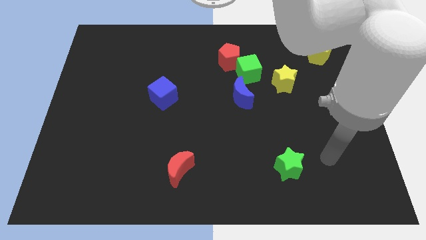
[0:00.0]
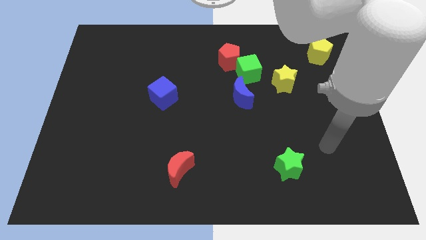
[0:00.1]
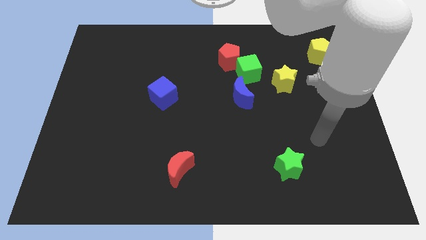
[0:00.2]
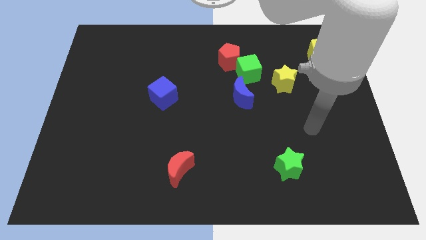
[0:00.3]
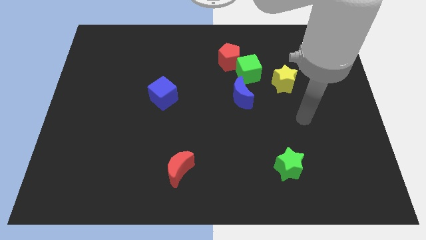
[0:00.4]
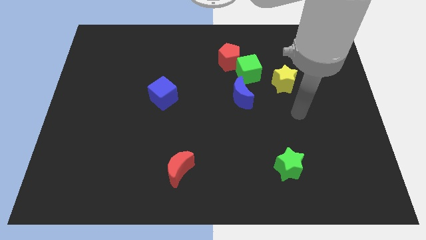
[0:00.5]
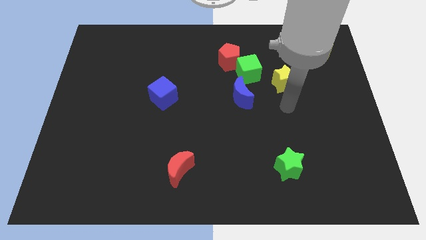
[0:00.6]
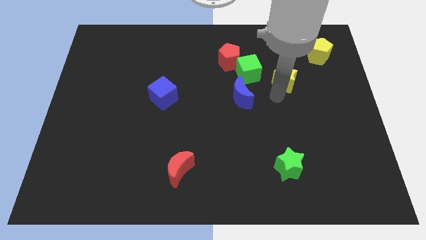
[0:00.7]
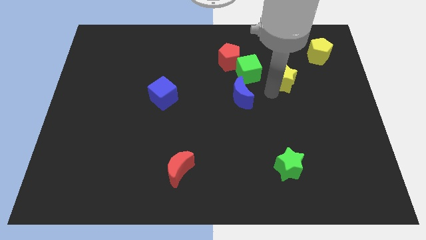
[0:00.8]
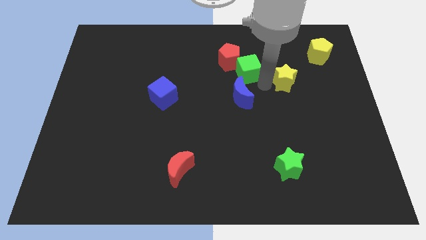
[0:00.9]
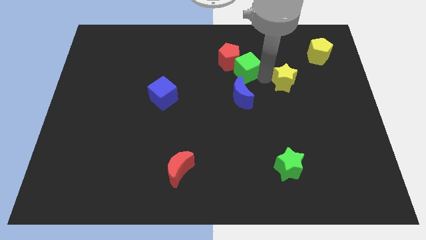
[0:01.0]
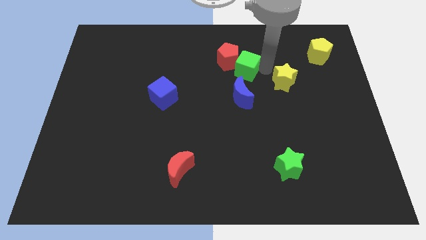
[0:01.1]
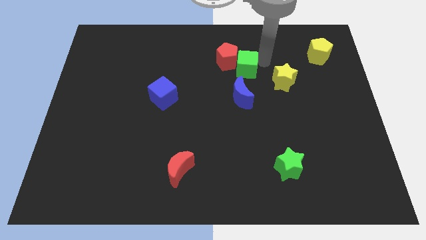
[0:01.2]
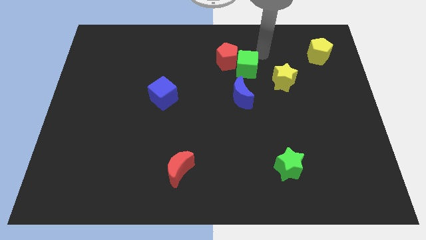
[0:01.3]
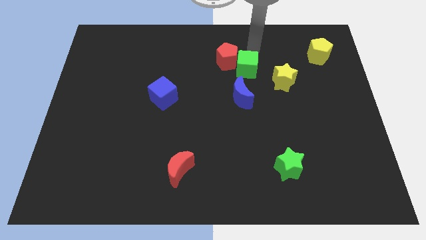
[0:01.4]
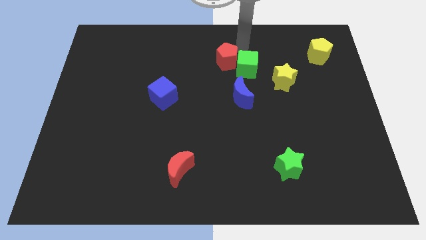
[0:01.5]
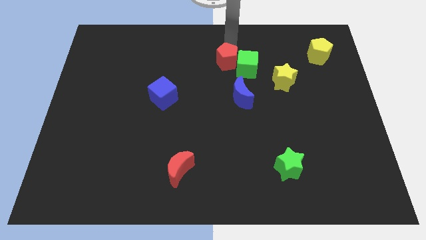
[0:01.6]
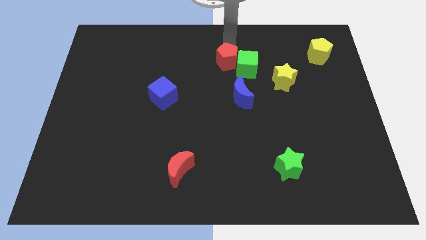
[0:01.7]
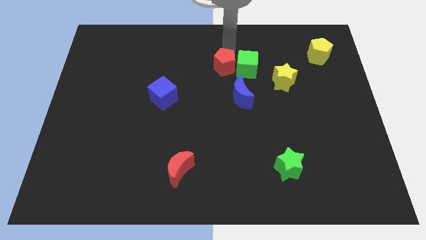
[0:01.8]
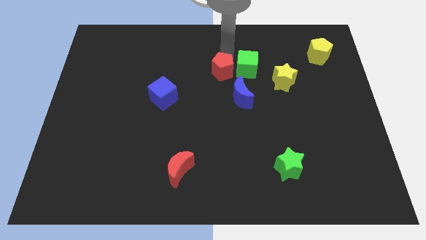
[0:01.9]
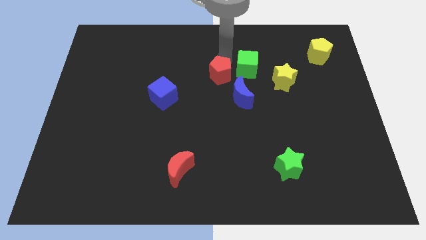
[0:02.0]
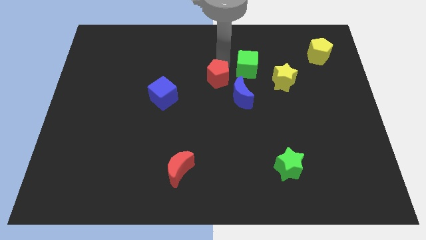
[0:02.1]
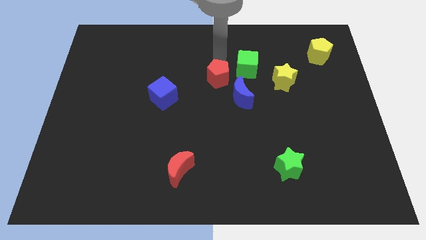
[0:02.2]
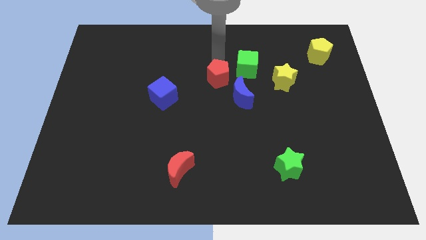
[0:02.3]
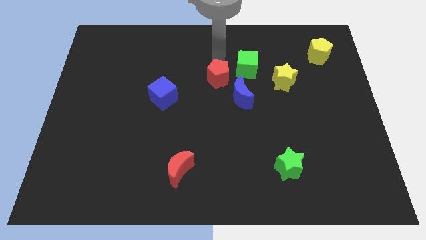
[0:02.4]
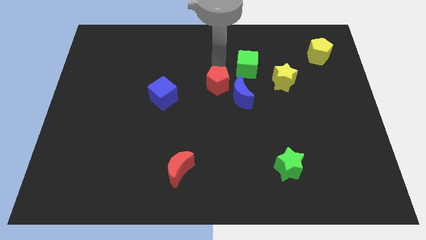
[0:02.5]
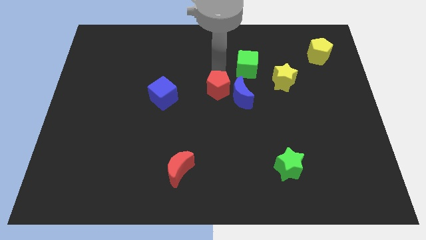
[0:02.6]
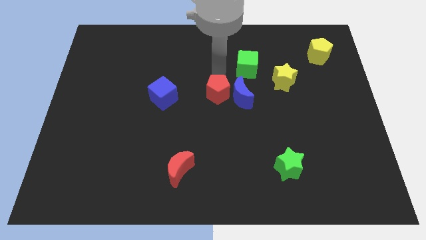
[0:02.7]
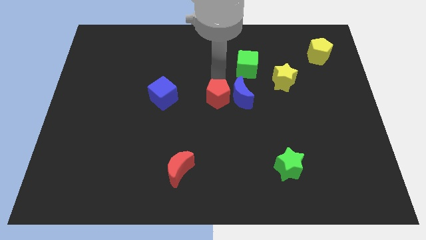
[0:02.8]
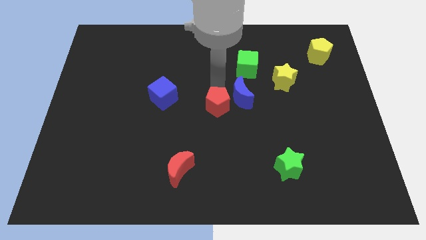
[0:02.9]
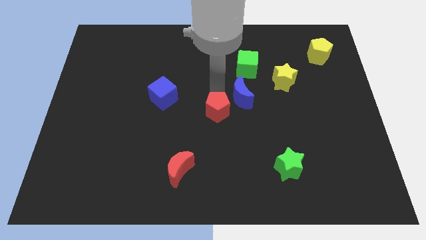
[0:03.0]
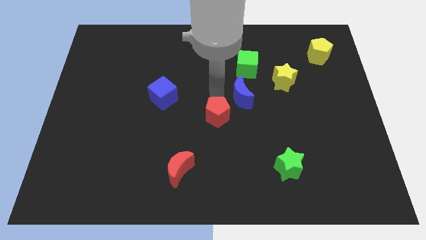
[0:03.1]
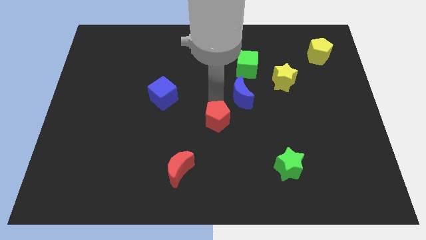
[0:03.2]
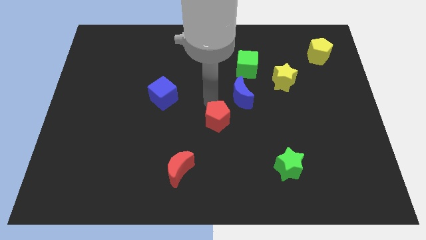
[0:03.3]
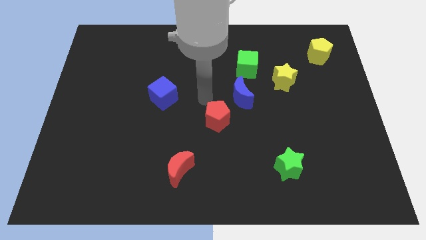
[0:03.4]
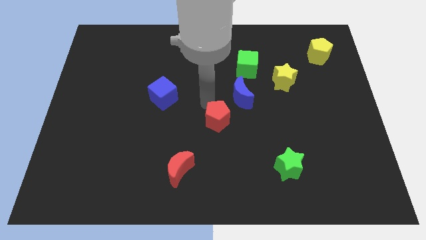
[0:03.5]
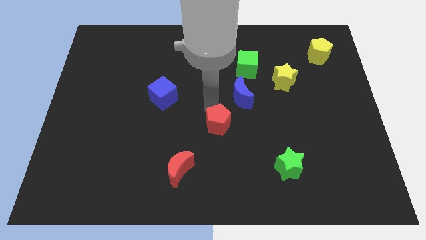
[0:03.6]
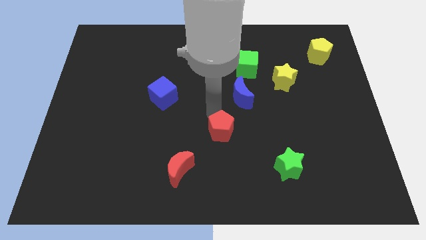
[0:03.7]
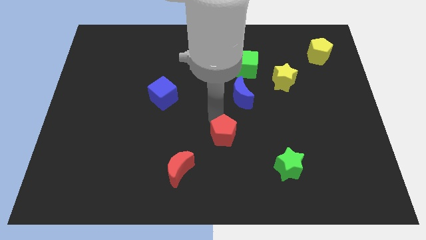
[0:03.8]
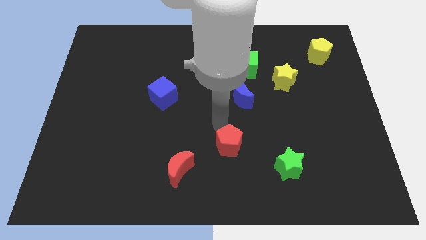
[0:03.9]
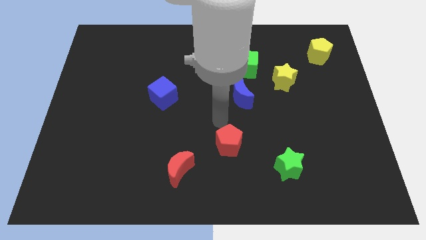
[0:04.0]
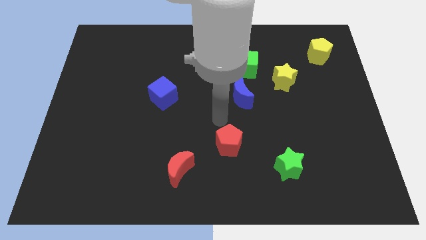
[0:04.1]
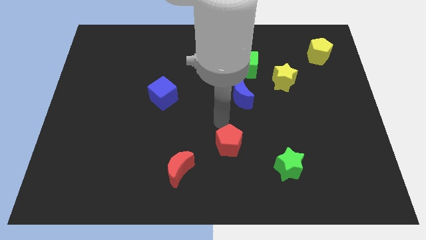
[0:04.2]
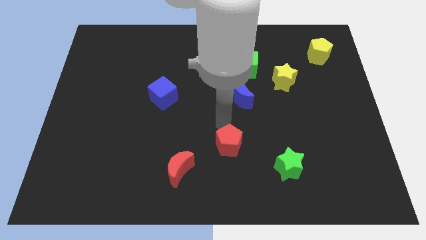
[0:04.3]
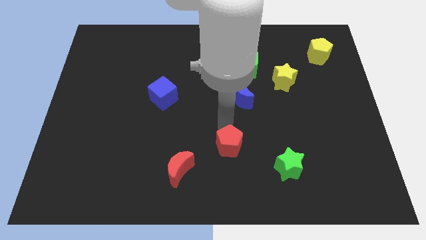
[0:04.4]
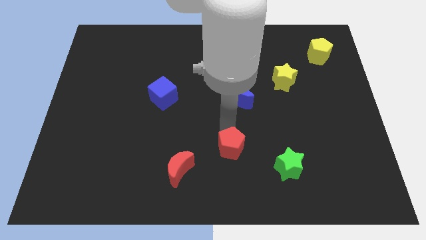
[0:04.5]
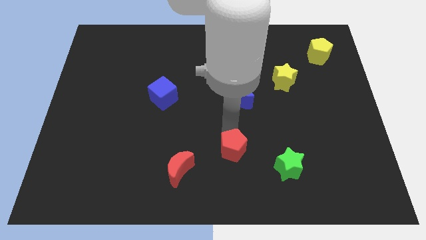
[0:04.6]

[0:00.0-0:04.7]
push the red pentagon just left of the green star

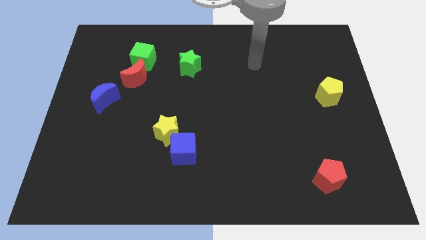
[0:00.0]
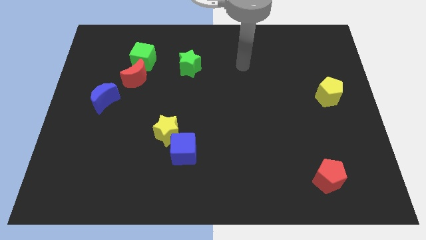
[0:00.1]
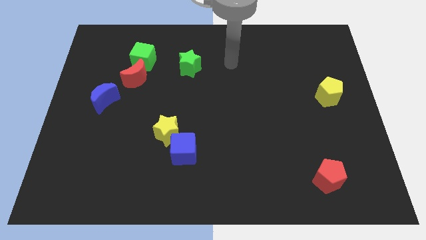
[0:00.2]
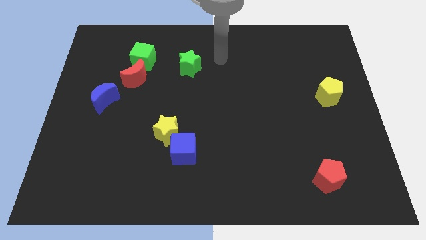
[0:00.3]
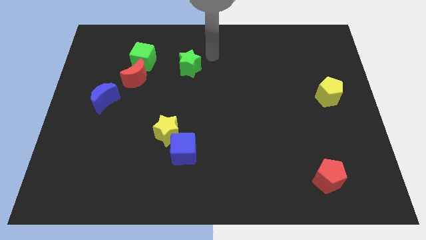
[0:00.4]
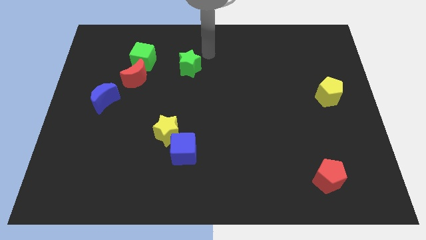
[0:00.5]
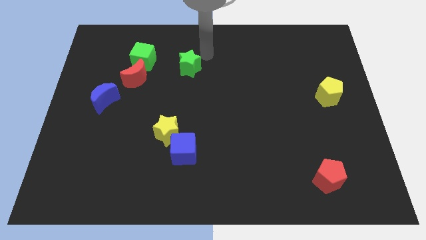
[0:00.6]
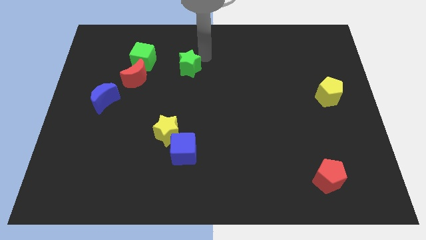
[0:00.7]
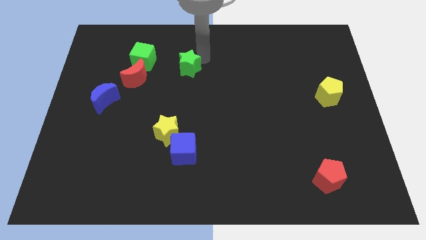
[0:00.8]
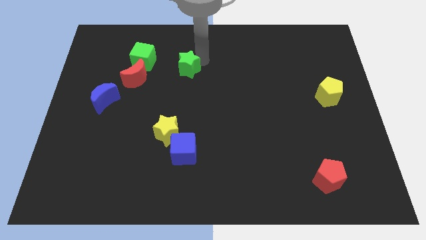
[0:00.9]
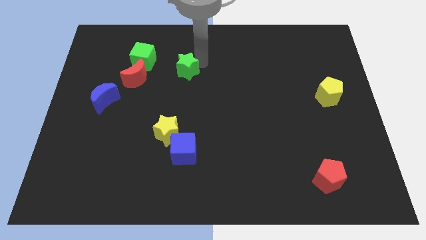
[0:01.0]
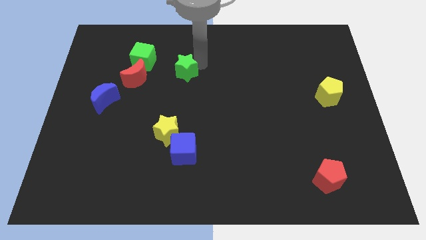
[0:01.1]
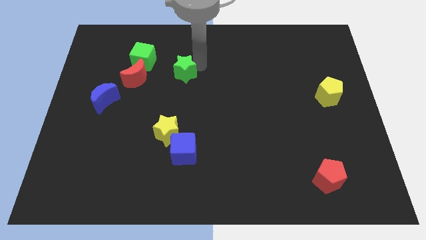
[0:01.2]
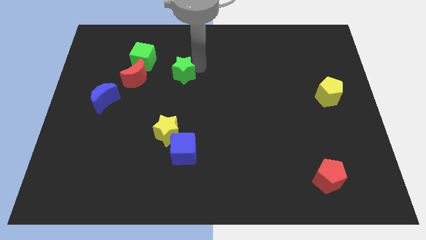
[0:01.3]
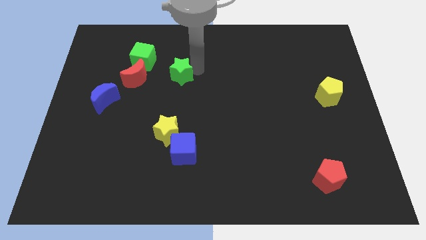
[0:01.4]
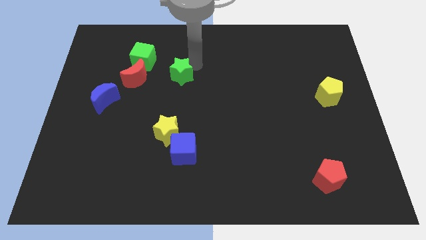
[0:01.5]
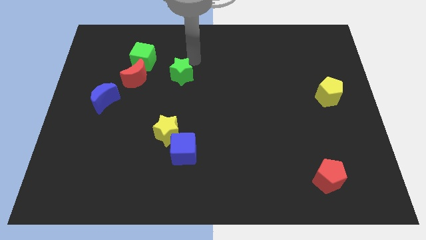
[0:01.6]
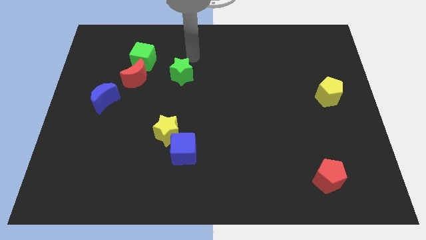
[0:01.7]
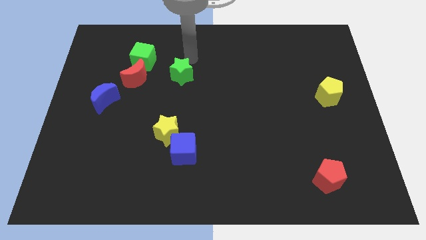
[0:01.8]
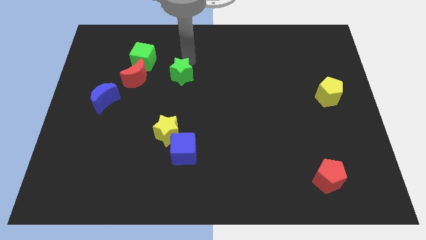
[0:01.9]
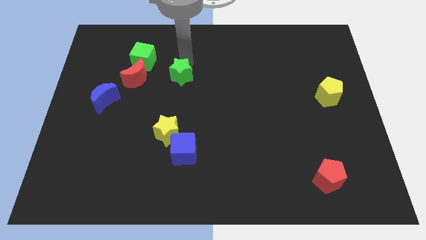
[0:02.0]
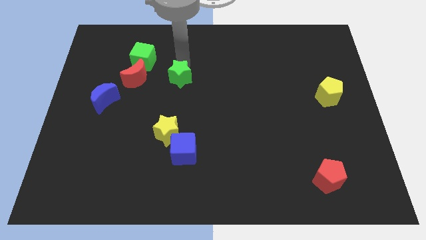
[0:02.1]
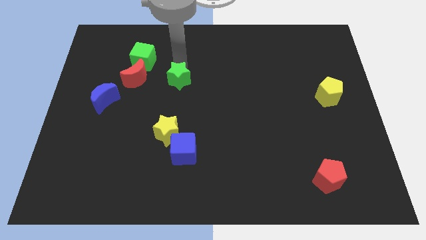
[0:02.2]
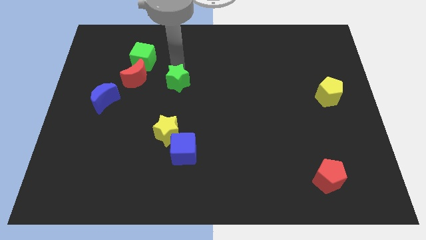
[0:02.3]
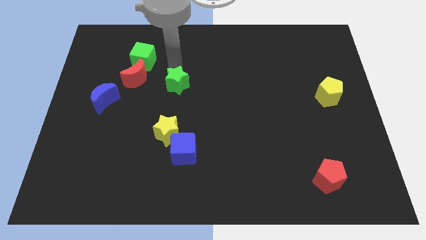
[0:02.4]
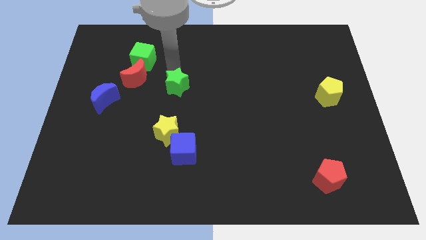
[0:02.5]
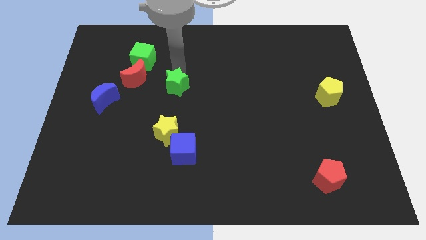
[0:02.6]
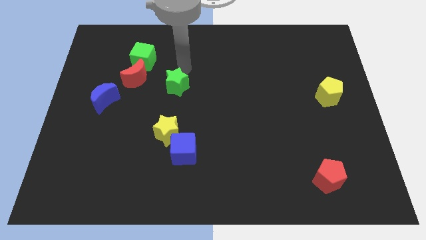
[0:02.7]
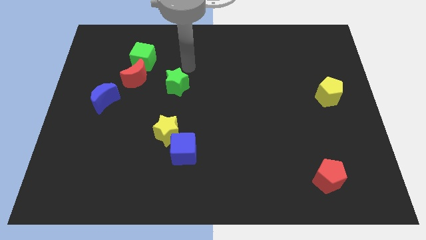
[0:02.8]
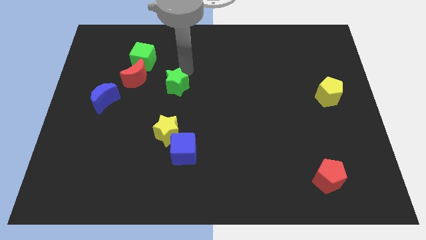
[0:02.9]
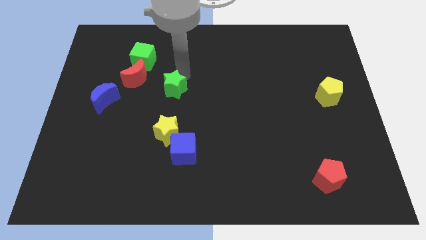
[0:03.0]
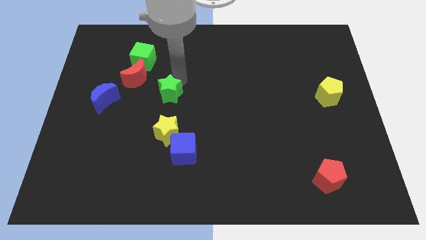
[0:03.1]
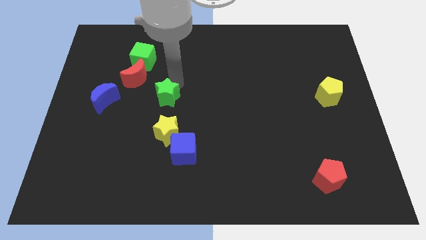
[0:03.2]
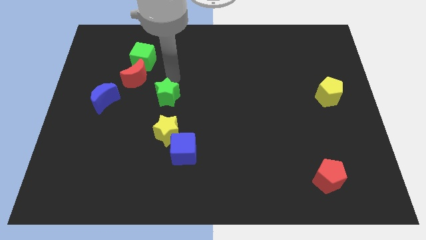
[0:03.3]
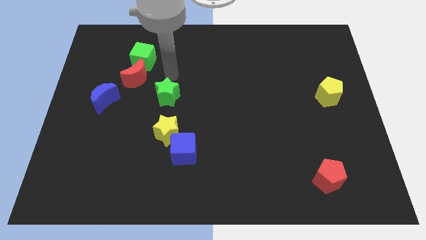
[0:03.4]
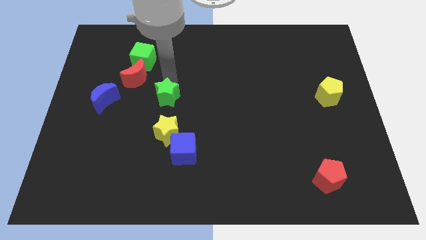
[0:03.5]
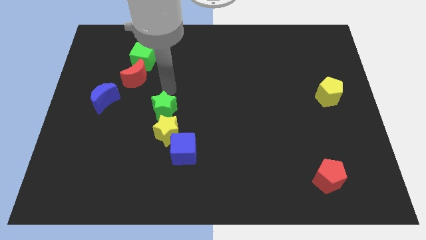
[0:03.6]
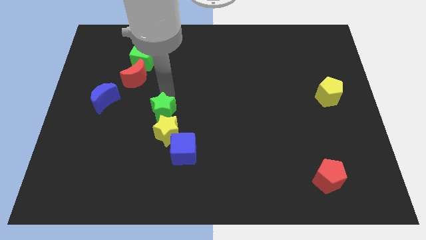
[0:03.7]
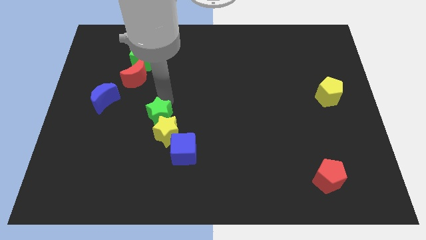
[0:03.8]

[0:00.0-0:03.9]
put the green star diagonally up and to the left of the blue cube
